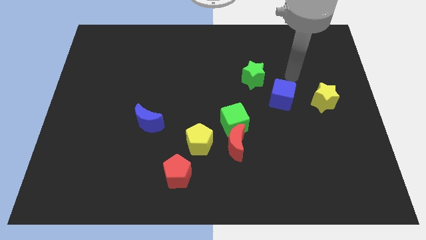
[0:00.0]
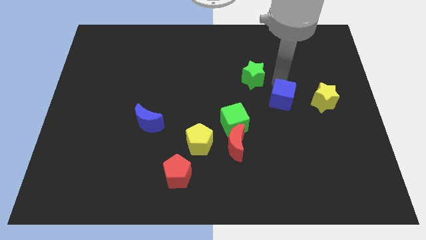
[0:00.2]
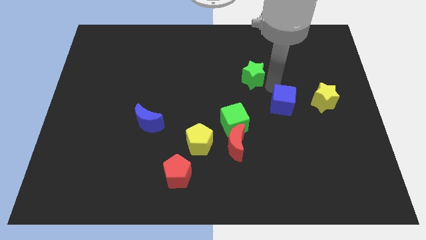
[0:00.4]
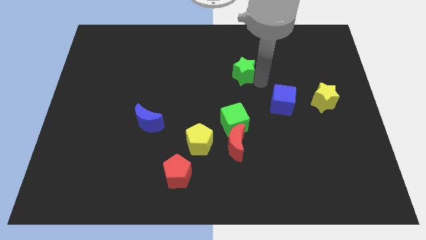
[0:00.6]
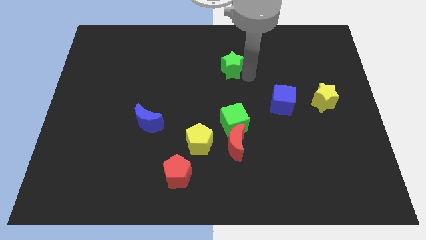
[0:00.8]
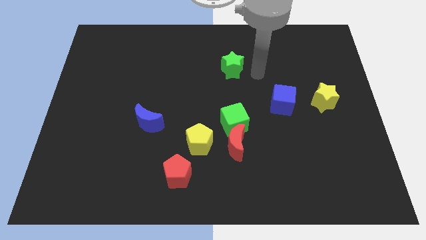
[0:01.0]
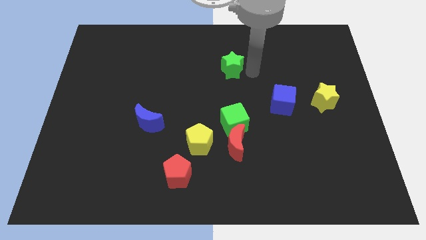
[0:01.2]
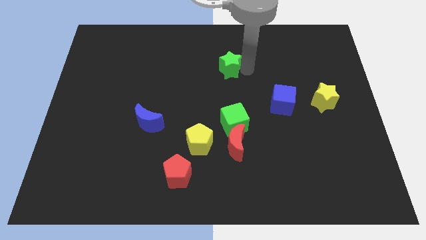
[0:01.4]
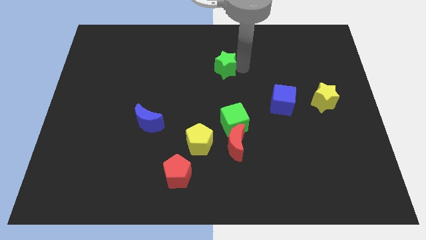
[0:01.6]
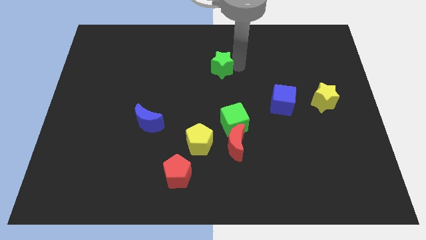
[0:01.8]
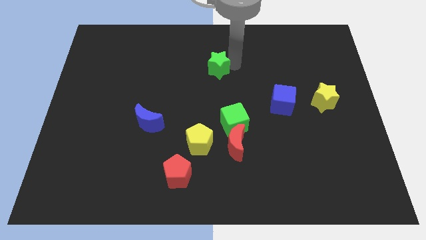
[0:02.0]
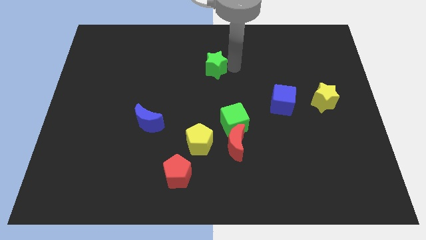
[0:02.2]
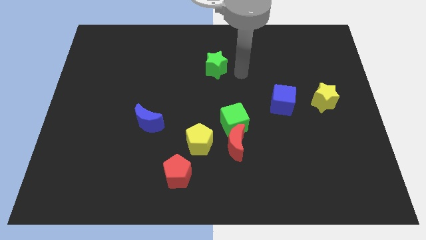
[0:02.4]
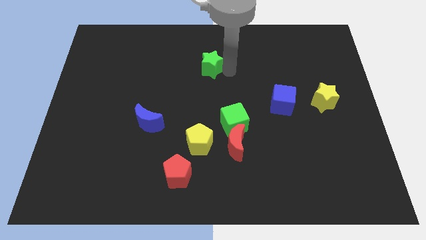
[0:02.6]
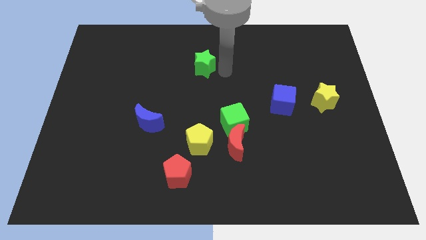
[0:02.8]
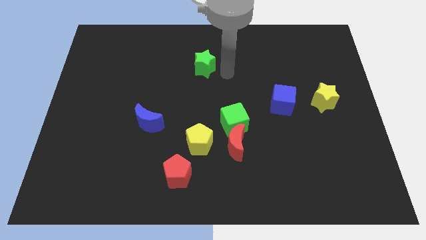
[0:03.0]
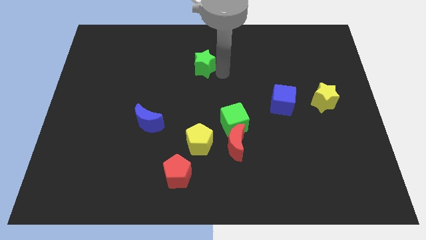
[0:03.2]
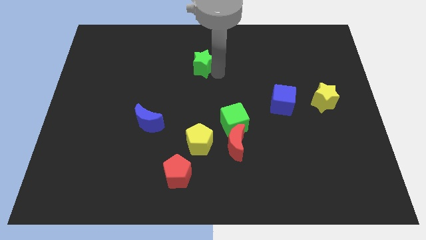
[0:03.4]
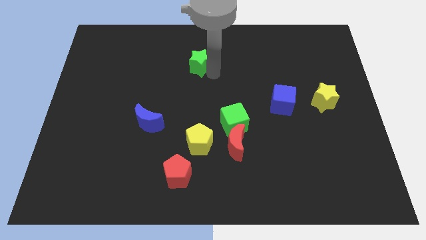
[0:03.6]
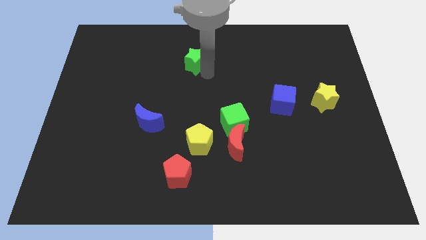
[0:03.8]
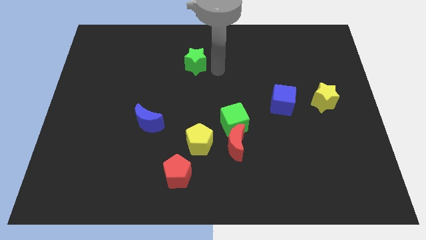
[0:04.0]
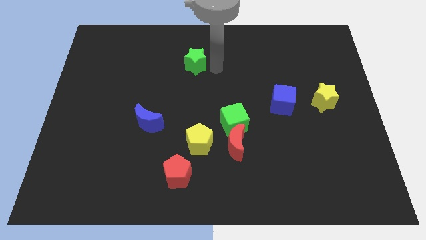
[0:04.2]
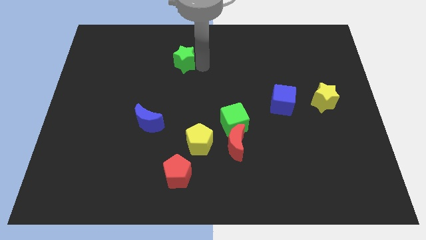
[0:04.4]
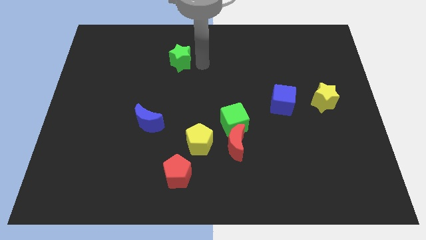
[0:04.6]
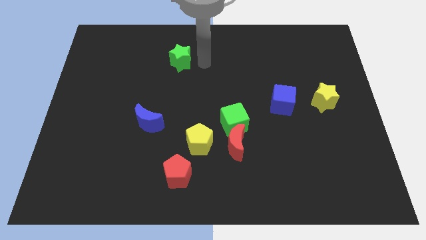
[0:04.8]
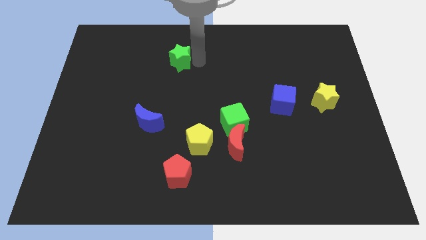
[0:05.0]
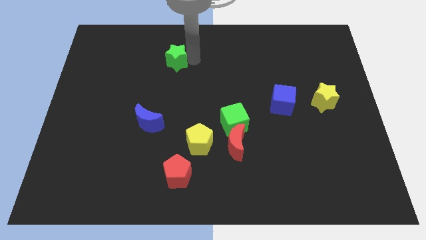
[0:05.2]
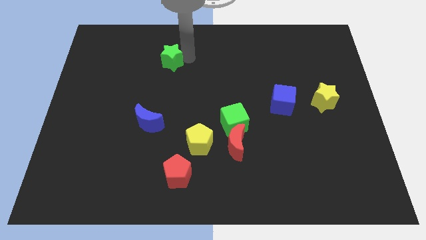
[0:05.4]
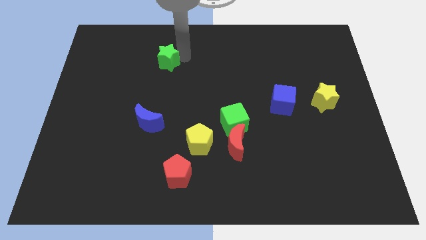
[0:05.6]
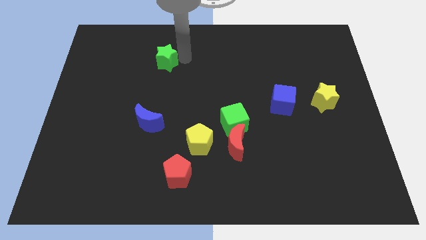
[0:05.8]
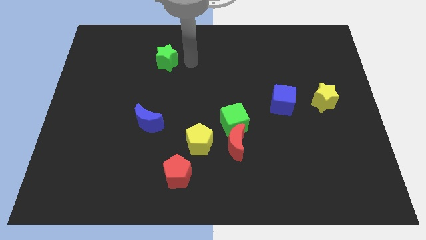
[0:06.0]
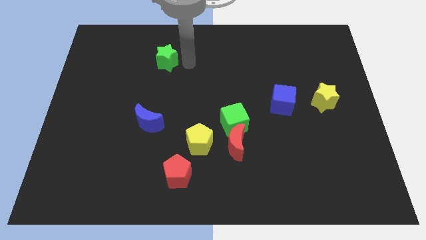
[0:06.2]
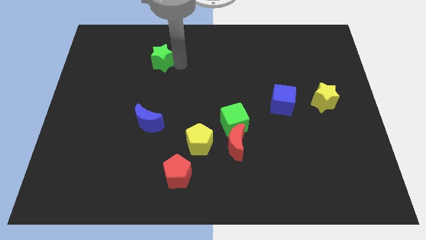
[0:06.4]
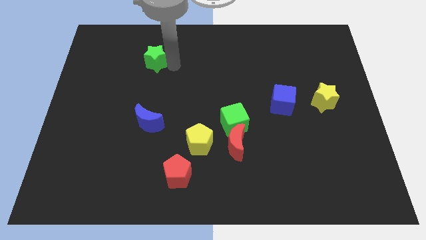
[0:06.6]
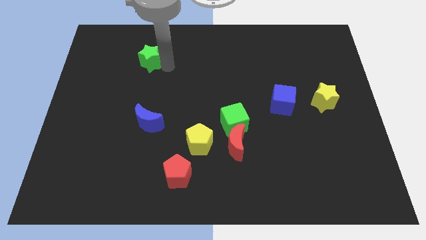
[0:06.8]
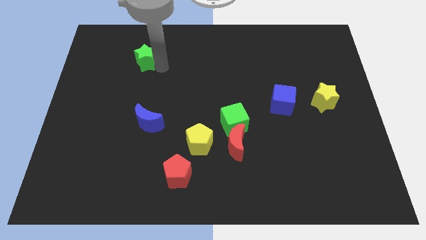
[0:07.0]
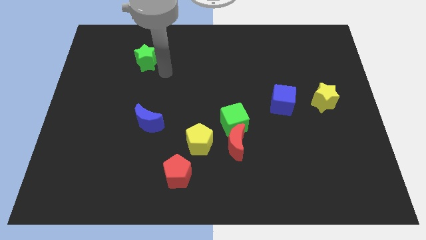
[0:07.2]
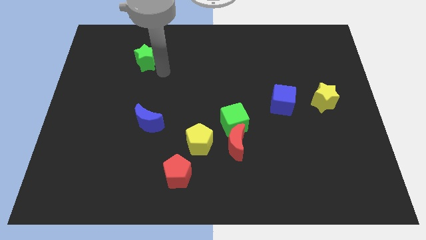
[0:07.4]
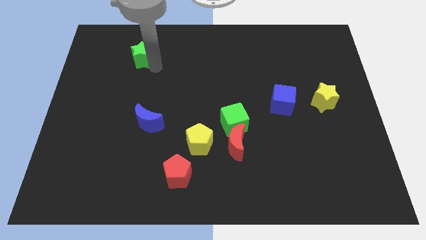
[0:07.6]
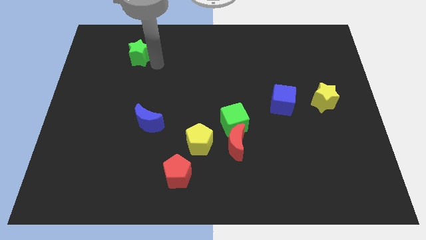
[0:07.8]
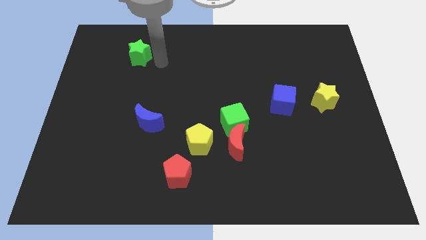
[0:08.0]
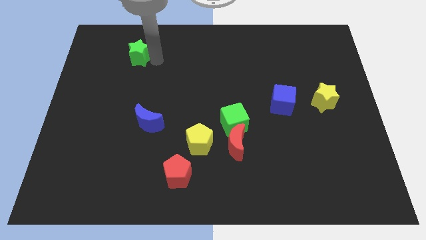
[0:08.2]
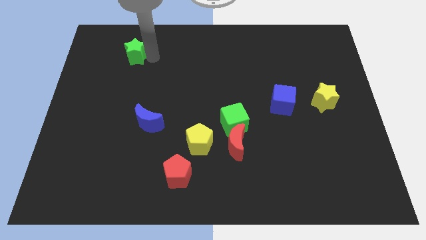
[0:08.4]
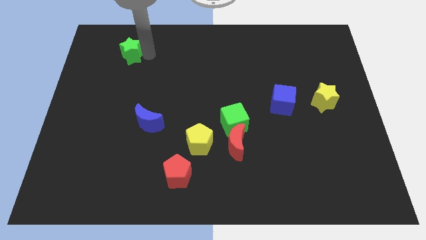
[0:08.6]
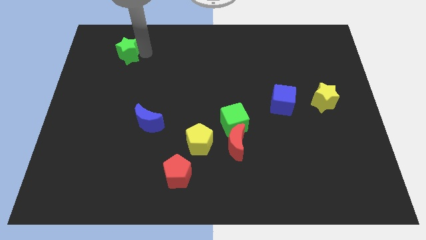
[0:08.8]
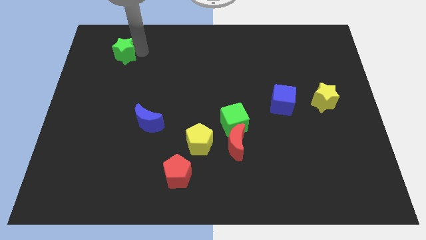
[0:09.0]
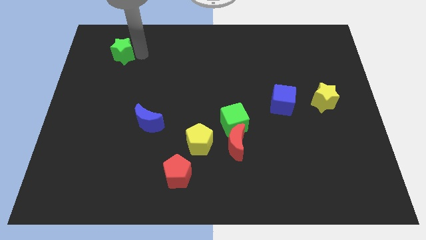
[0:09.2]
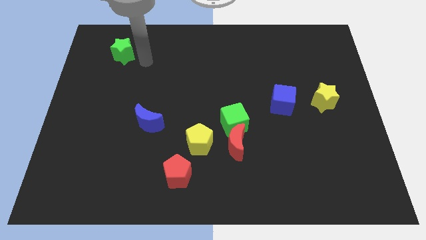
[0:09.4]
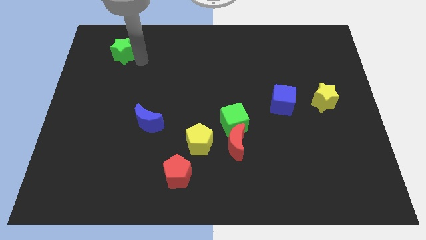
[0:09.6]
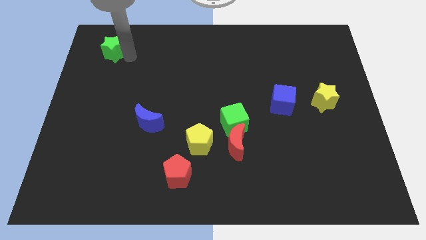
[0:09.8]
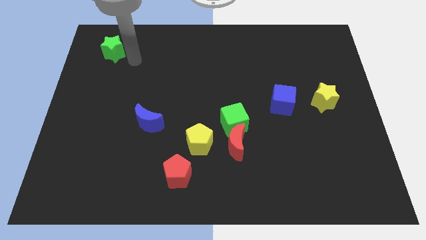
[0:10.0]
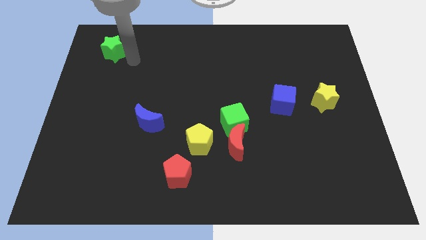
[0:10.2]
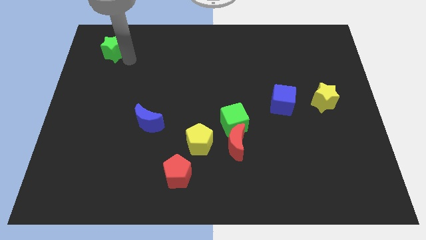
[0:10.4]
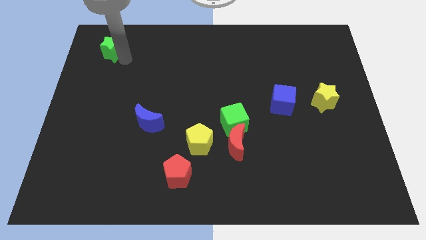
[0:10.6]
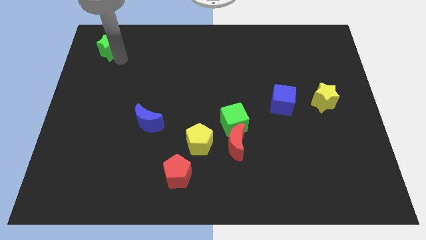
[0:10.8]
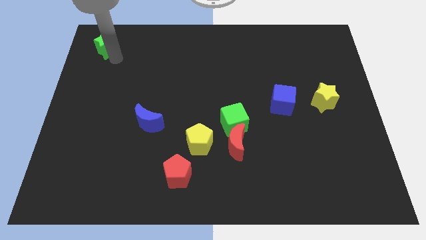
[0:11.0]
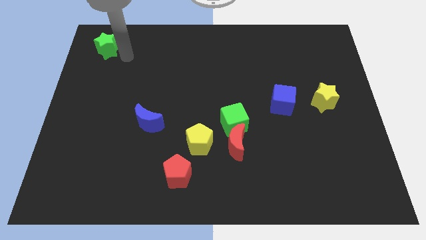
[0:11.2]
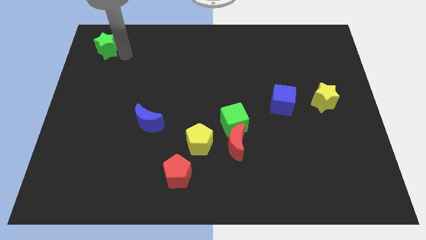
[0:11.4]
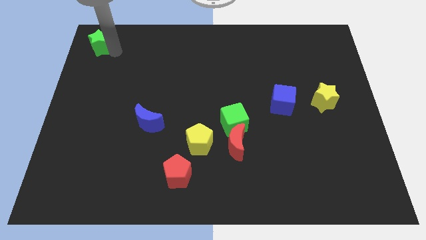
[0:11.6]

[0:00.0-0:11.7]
move the green star to the upper left corner

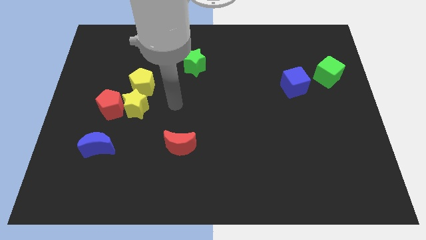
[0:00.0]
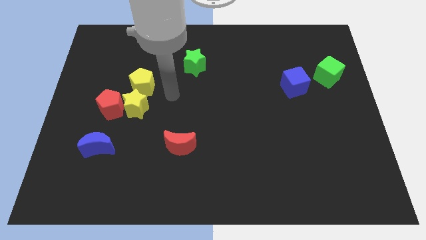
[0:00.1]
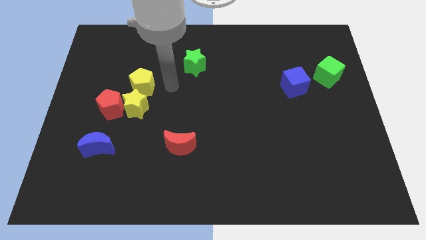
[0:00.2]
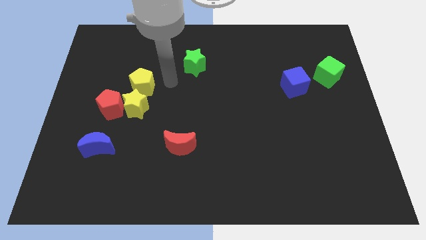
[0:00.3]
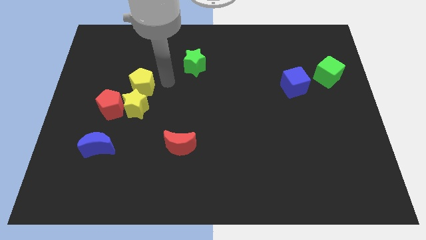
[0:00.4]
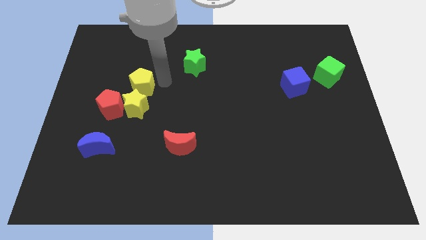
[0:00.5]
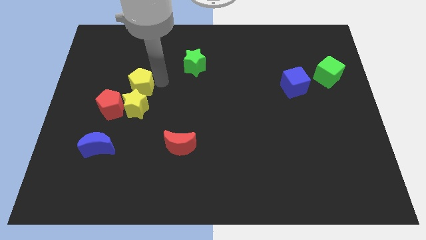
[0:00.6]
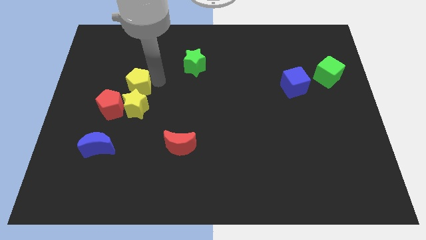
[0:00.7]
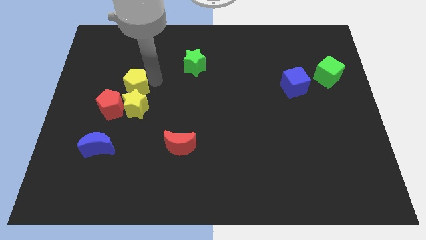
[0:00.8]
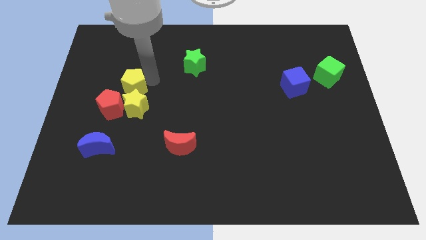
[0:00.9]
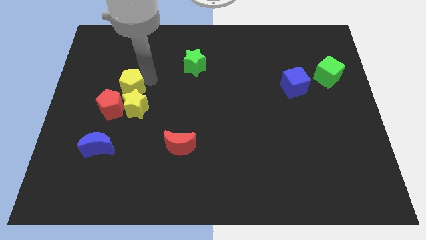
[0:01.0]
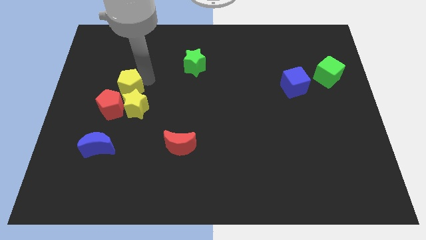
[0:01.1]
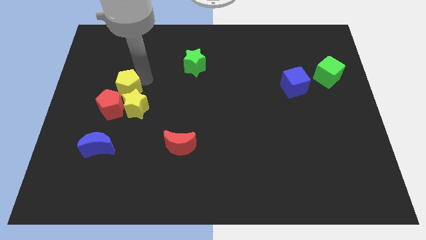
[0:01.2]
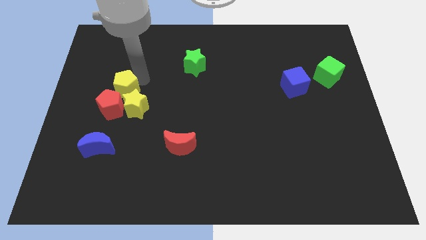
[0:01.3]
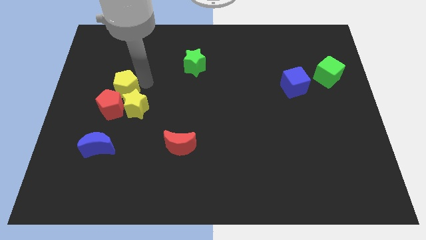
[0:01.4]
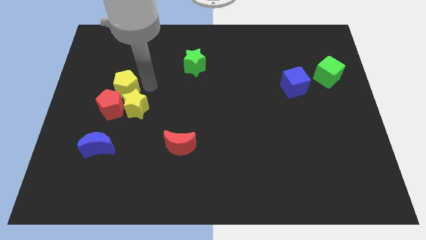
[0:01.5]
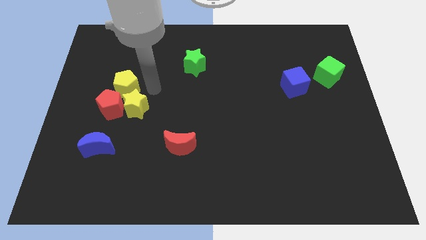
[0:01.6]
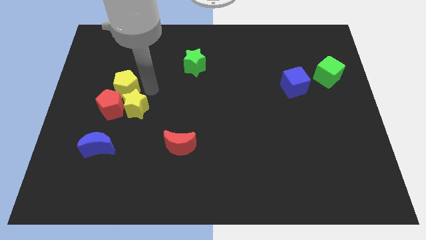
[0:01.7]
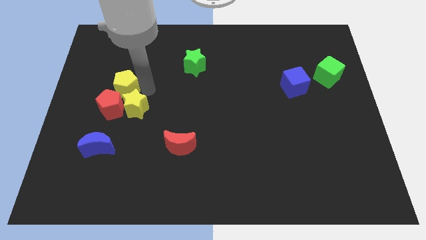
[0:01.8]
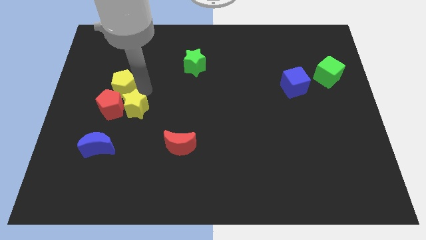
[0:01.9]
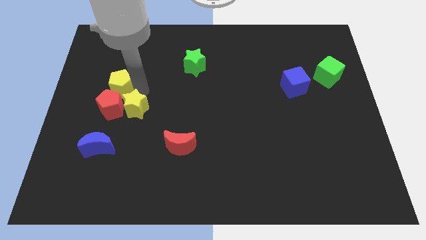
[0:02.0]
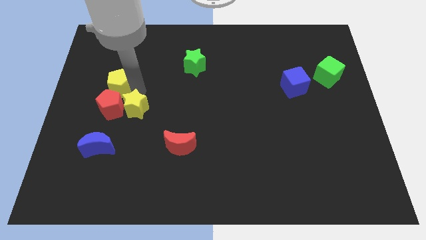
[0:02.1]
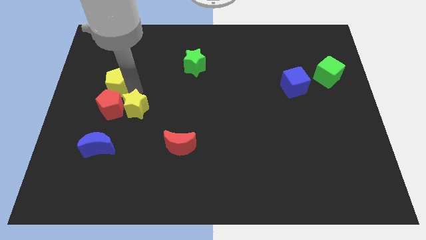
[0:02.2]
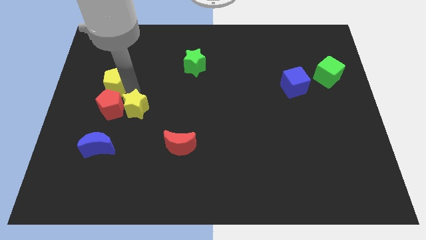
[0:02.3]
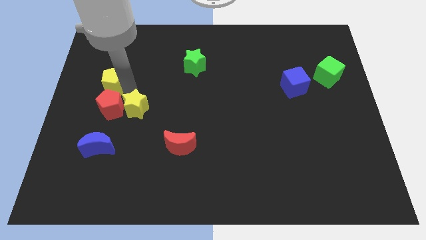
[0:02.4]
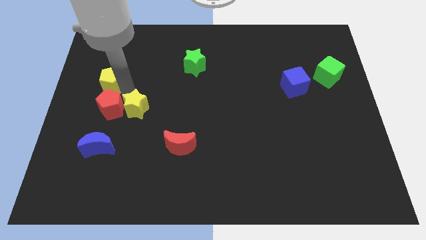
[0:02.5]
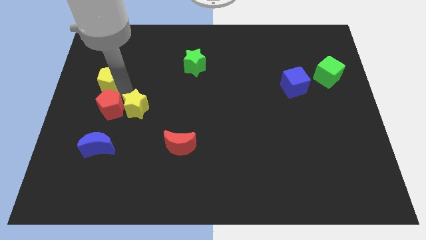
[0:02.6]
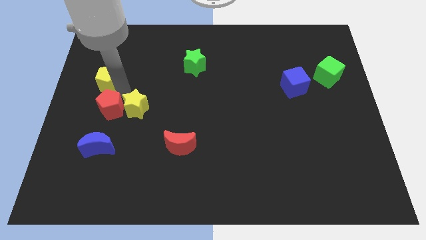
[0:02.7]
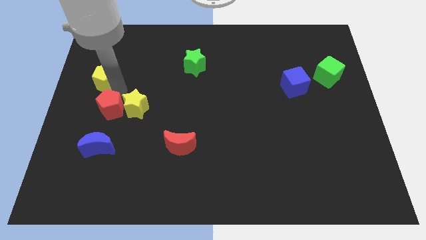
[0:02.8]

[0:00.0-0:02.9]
put the yellow pentagon to the left side of the board
